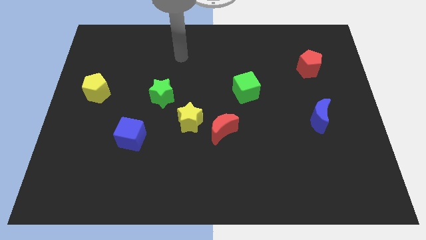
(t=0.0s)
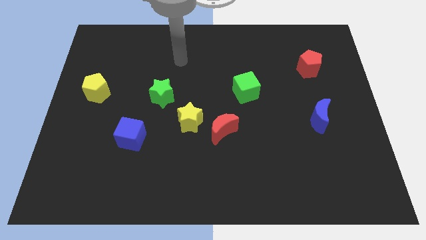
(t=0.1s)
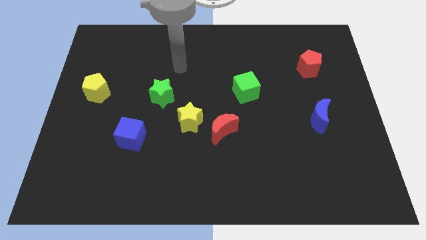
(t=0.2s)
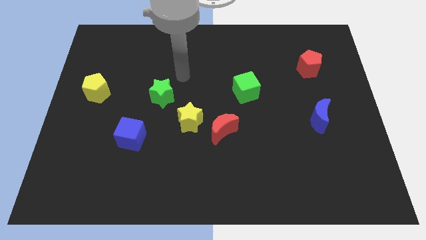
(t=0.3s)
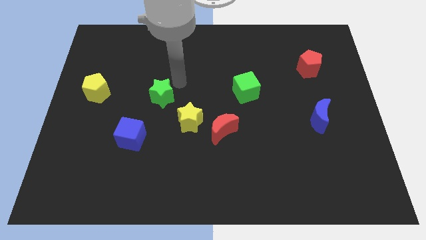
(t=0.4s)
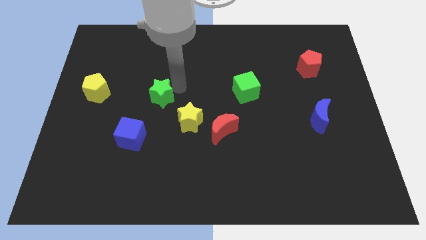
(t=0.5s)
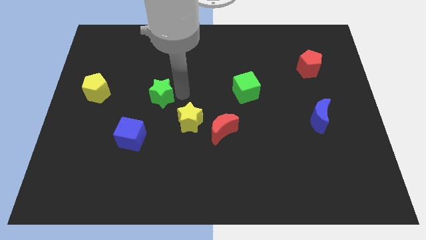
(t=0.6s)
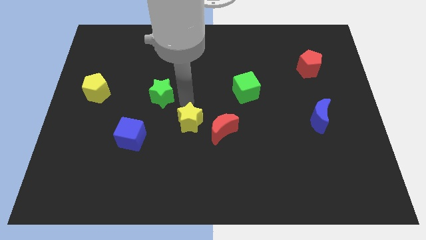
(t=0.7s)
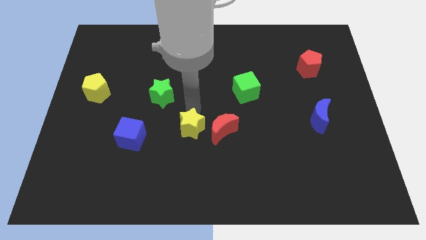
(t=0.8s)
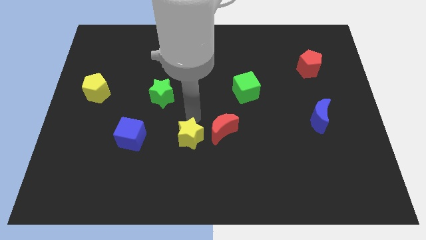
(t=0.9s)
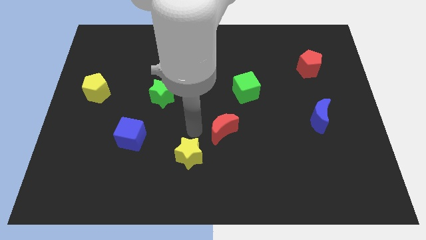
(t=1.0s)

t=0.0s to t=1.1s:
move the red moon away from the yellow star

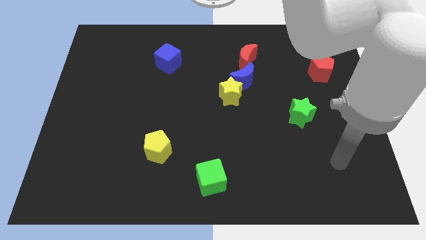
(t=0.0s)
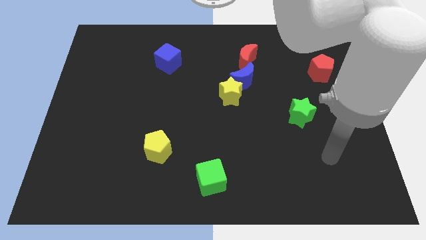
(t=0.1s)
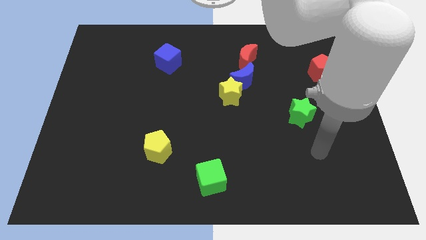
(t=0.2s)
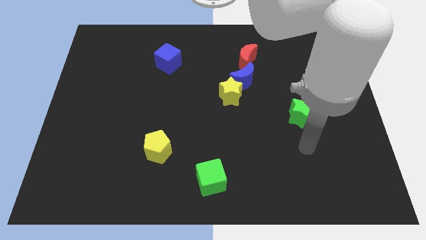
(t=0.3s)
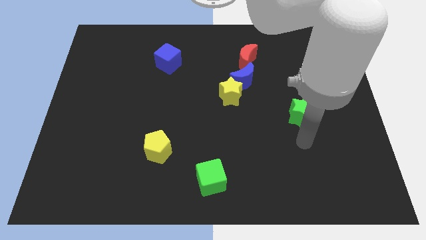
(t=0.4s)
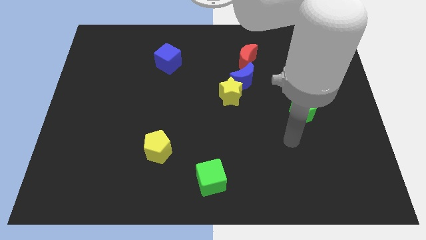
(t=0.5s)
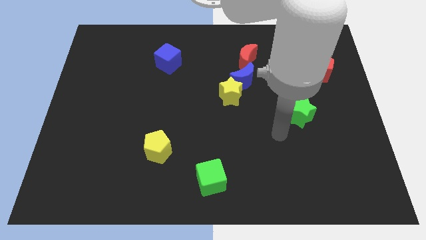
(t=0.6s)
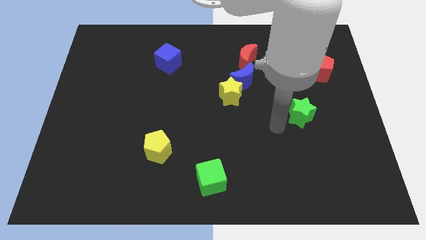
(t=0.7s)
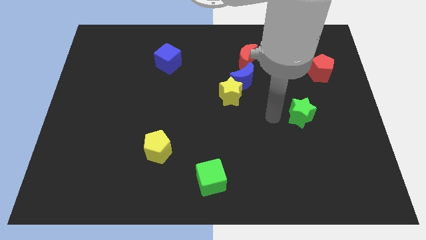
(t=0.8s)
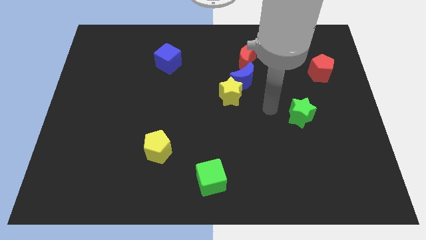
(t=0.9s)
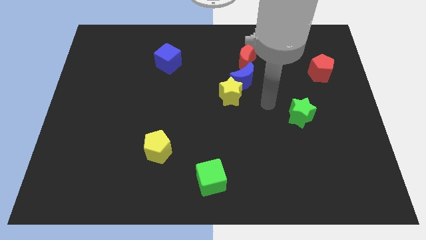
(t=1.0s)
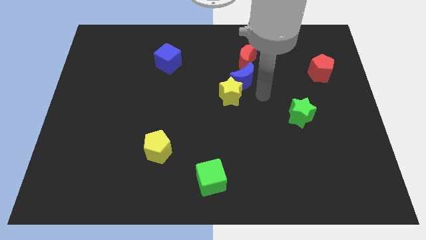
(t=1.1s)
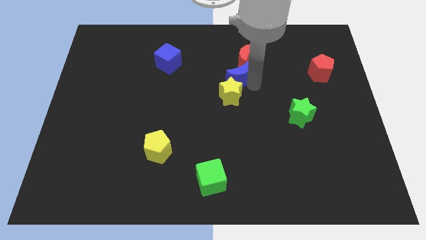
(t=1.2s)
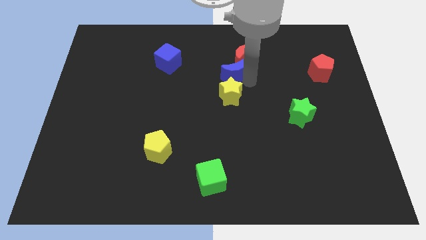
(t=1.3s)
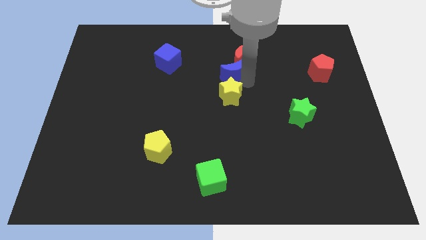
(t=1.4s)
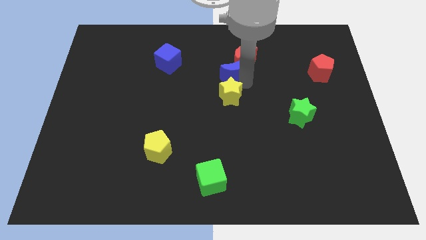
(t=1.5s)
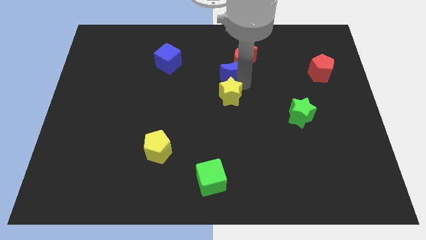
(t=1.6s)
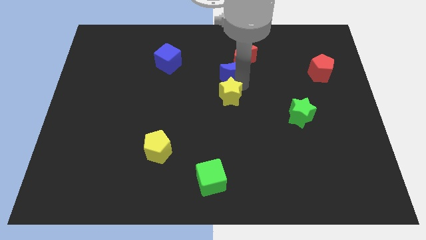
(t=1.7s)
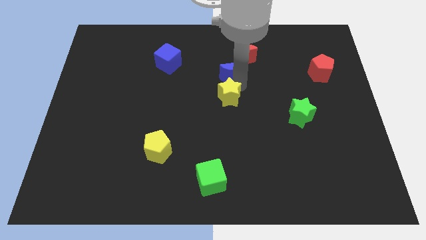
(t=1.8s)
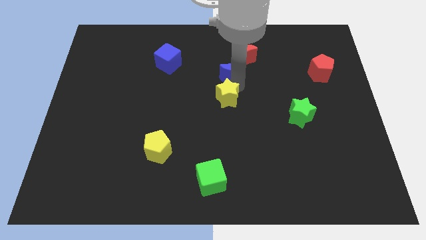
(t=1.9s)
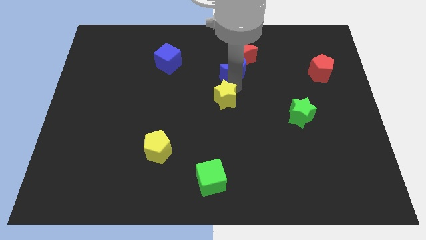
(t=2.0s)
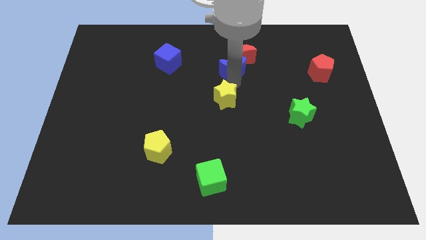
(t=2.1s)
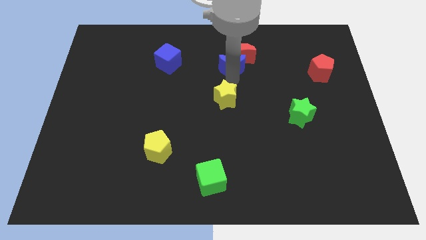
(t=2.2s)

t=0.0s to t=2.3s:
separate the yellow star from the blue moon

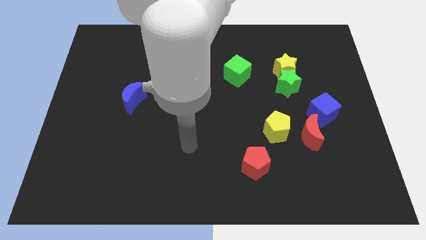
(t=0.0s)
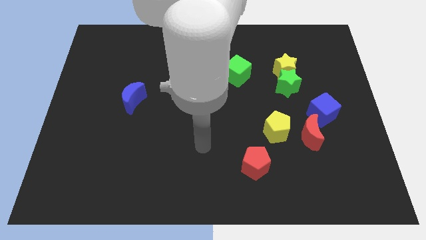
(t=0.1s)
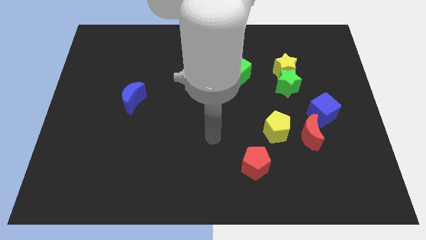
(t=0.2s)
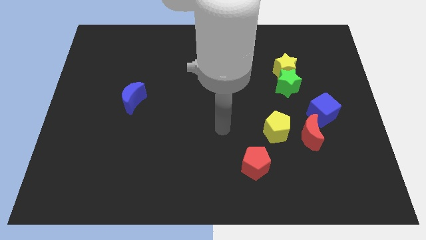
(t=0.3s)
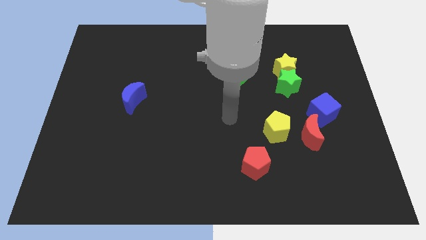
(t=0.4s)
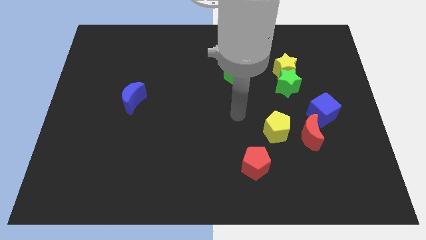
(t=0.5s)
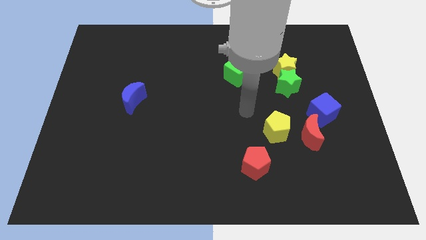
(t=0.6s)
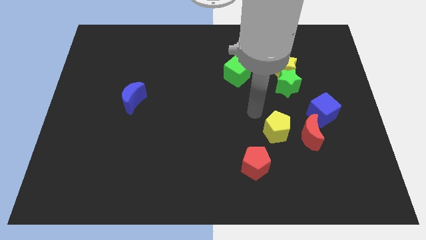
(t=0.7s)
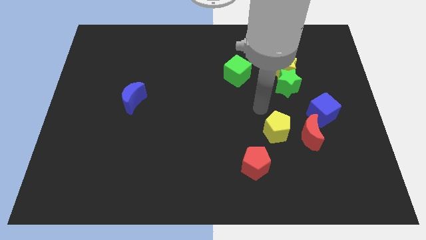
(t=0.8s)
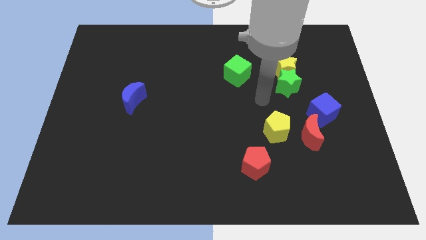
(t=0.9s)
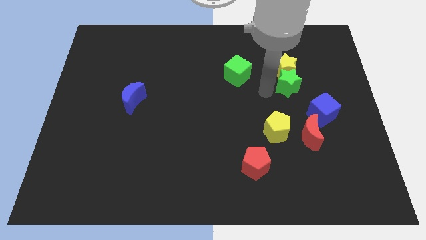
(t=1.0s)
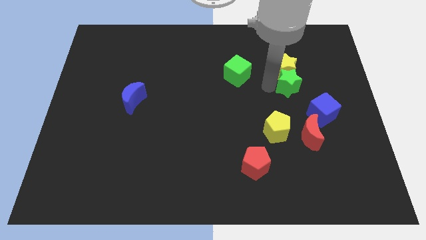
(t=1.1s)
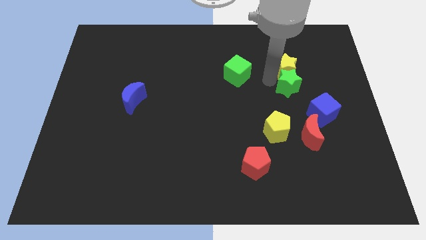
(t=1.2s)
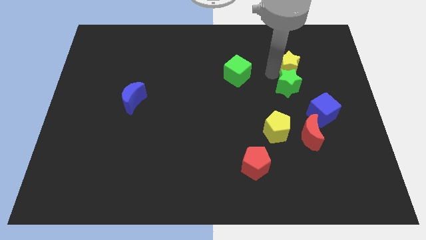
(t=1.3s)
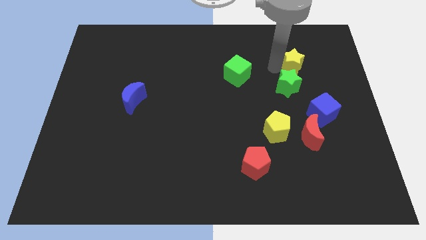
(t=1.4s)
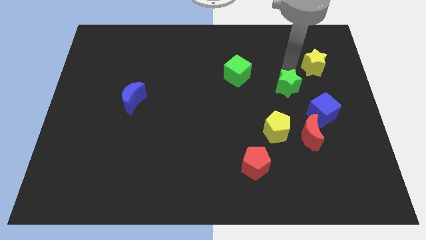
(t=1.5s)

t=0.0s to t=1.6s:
pull the green star apart from the yellow star

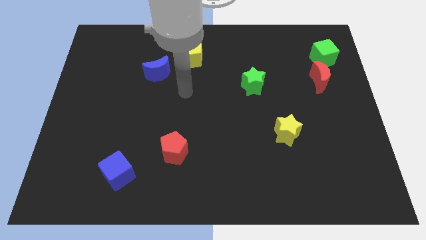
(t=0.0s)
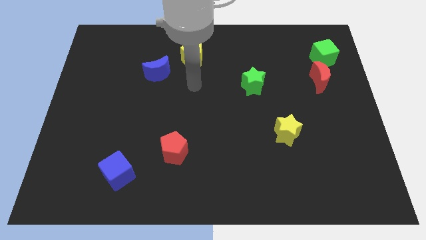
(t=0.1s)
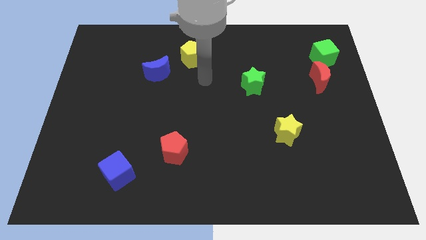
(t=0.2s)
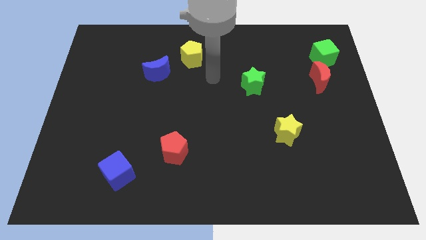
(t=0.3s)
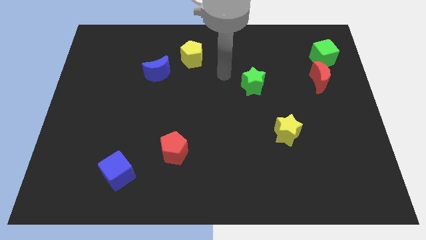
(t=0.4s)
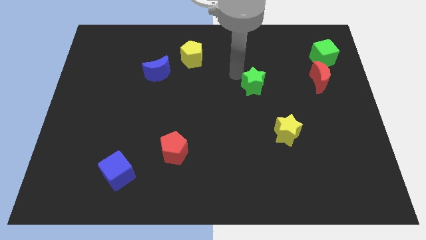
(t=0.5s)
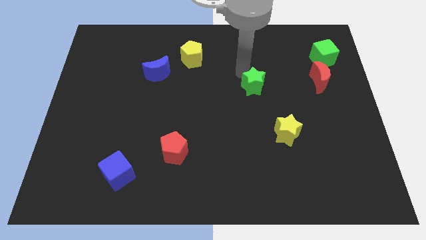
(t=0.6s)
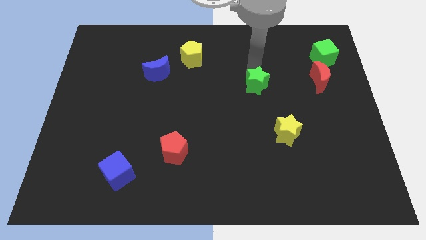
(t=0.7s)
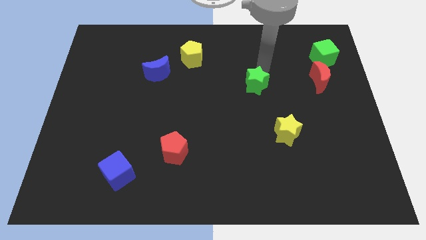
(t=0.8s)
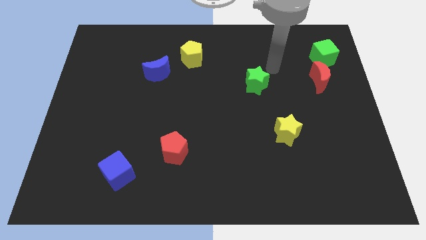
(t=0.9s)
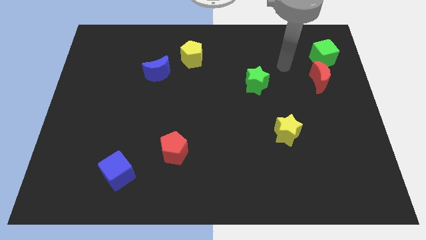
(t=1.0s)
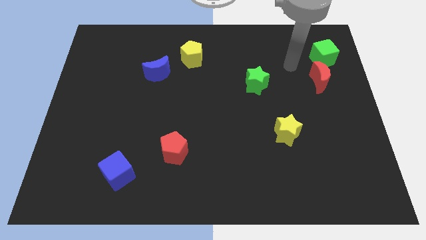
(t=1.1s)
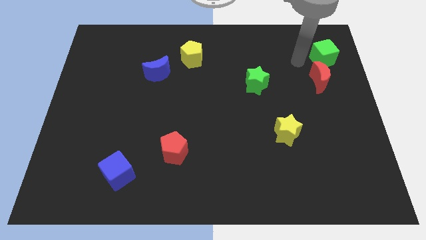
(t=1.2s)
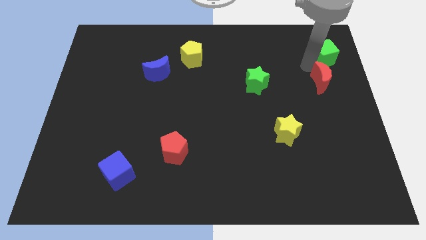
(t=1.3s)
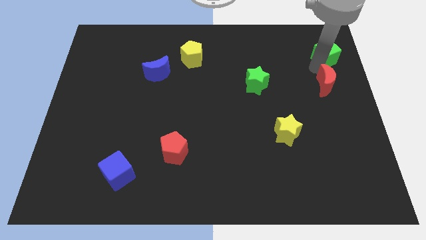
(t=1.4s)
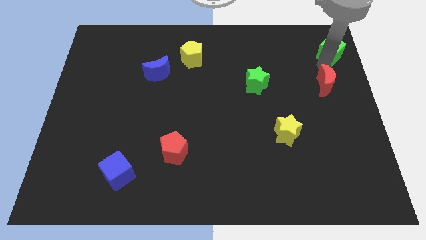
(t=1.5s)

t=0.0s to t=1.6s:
move the red moon away from the green cube

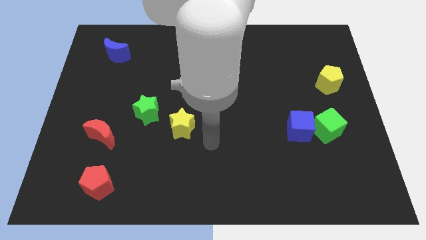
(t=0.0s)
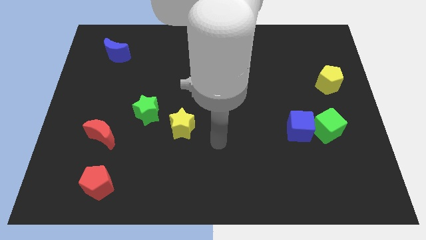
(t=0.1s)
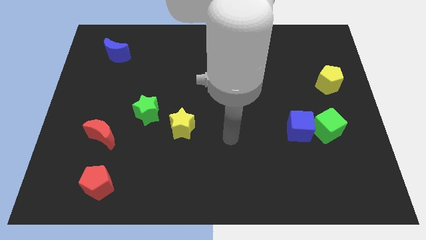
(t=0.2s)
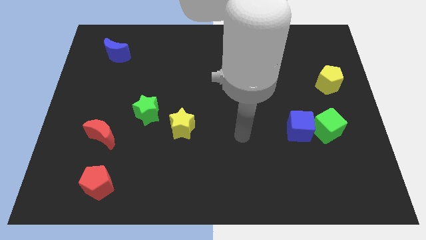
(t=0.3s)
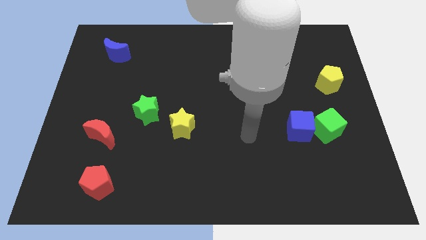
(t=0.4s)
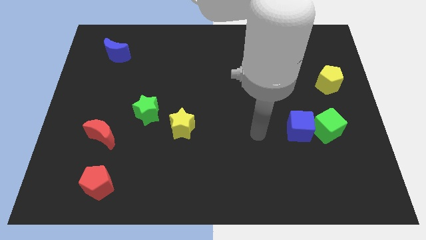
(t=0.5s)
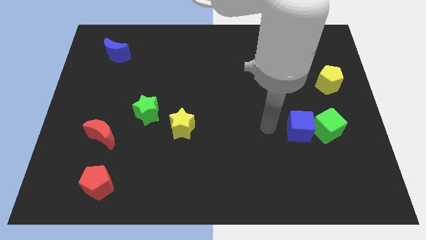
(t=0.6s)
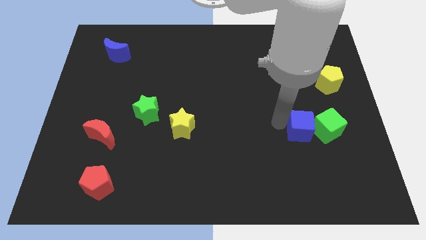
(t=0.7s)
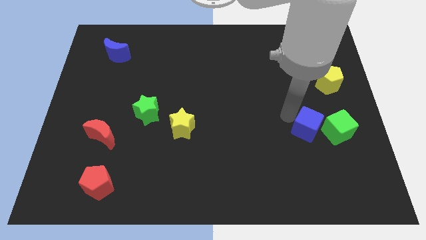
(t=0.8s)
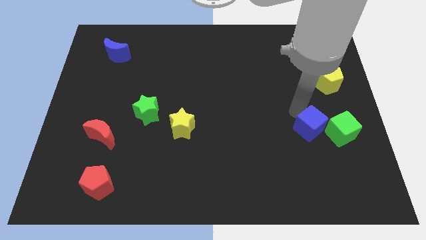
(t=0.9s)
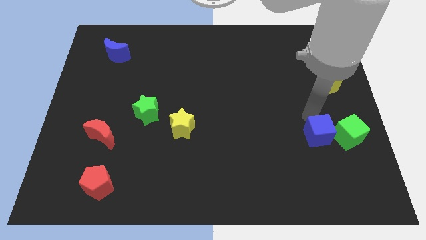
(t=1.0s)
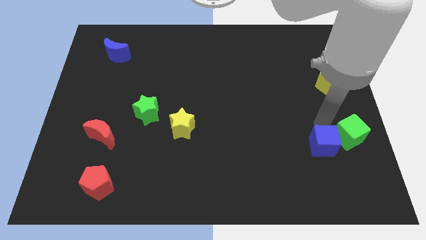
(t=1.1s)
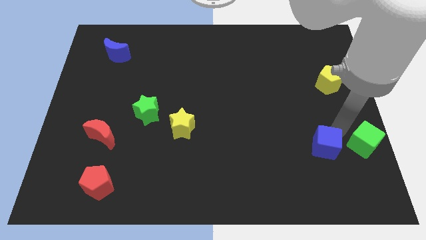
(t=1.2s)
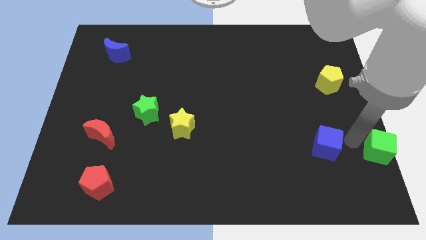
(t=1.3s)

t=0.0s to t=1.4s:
move the blue cube away from the green cube

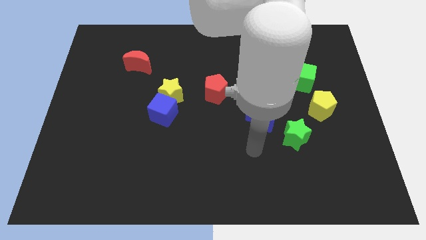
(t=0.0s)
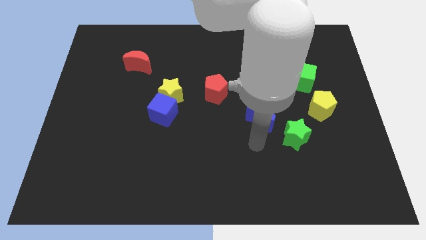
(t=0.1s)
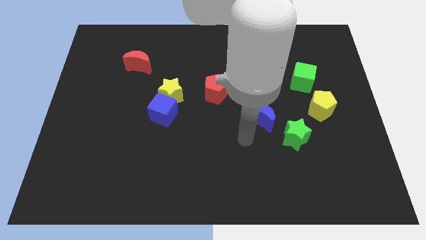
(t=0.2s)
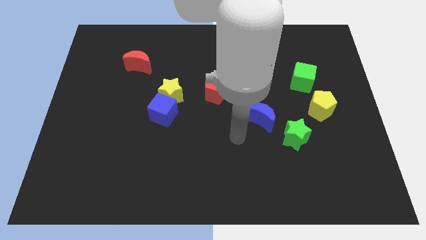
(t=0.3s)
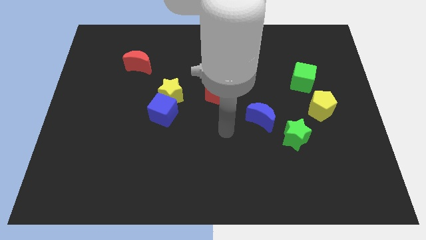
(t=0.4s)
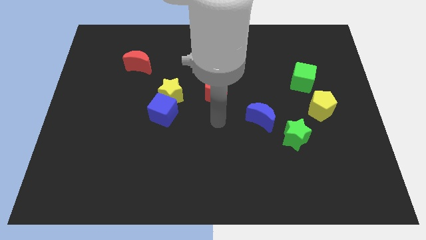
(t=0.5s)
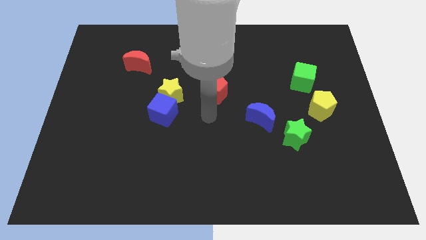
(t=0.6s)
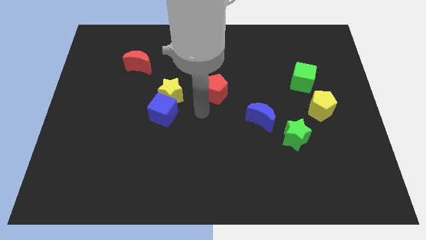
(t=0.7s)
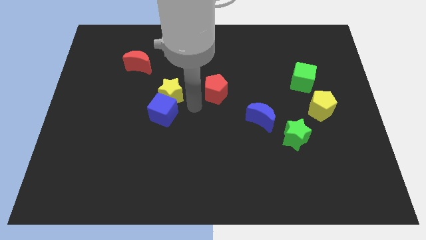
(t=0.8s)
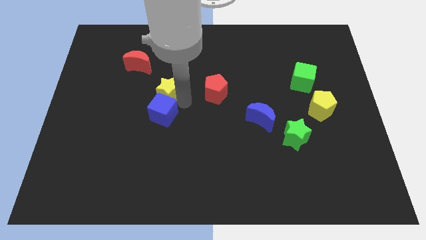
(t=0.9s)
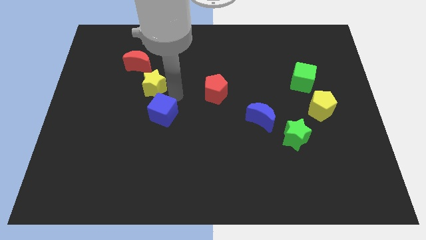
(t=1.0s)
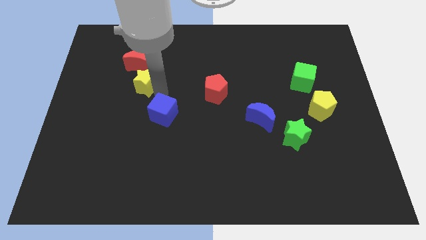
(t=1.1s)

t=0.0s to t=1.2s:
move the blue cube away from the yellow star
